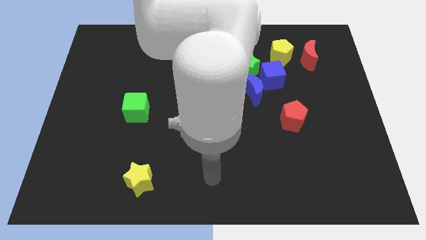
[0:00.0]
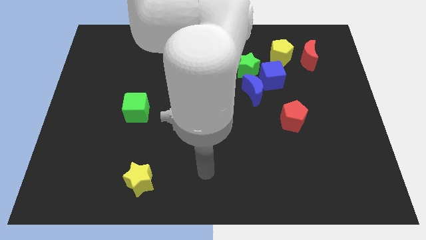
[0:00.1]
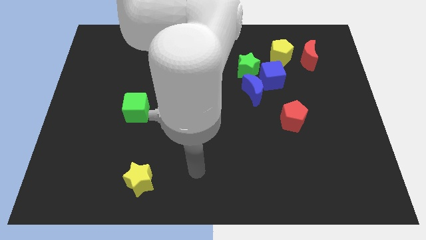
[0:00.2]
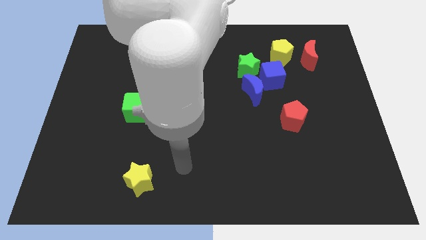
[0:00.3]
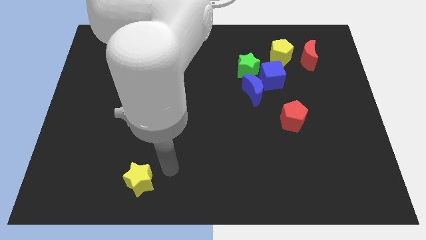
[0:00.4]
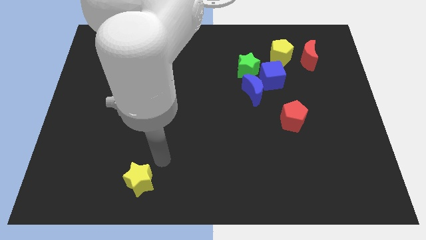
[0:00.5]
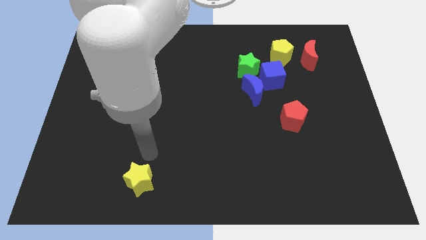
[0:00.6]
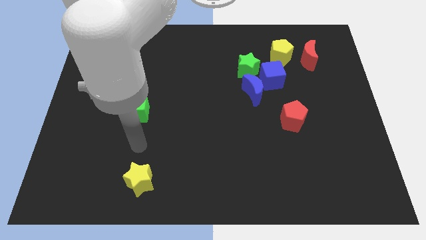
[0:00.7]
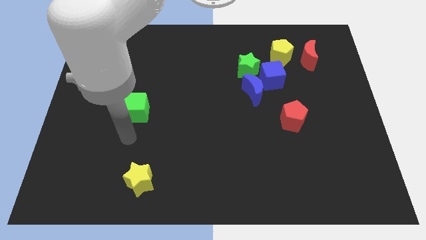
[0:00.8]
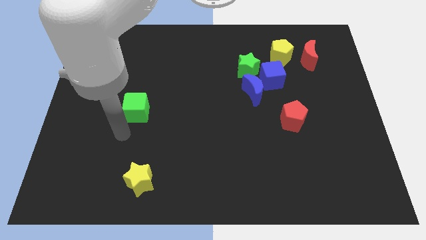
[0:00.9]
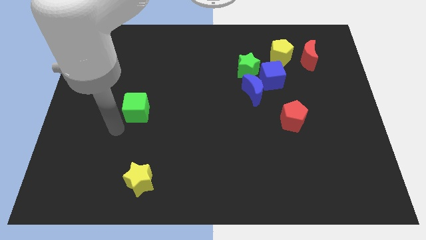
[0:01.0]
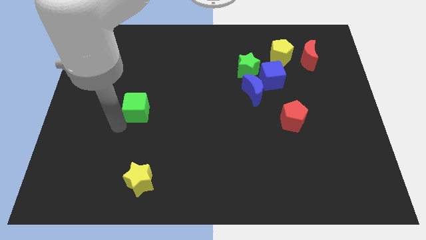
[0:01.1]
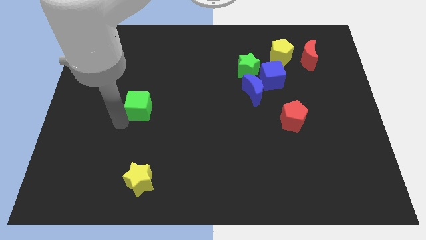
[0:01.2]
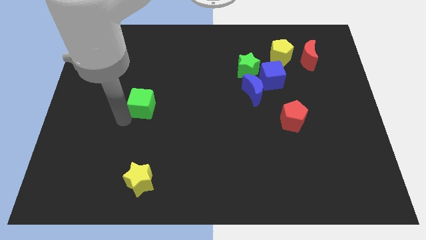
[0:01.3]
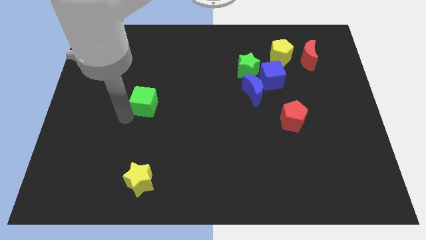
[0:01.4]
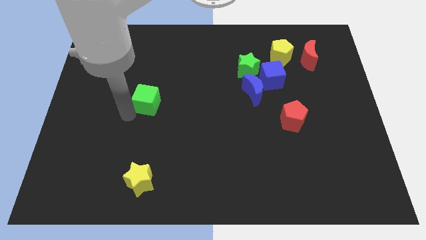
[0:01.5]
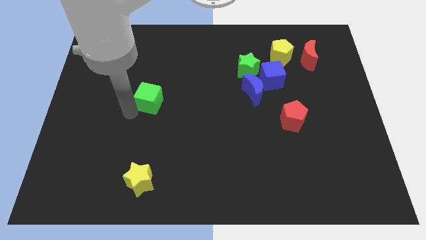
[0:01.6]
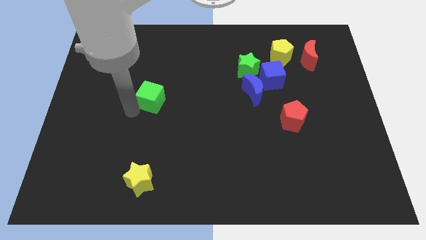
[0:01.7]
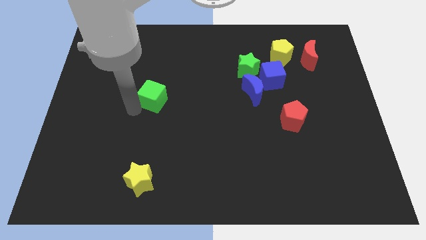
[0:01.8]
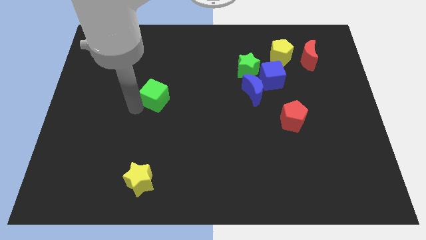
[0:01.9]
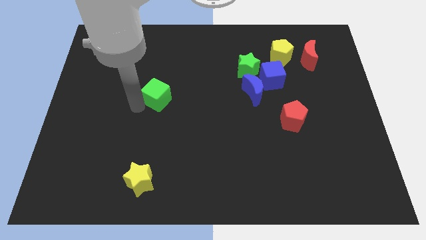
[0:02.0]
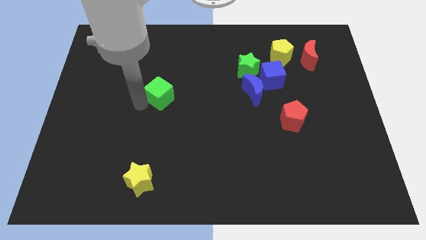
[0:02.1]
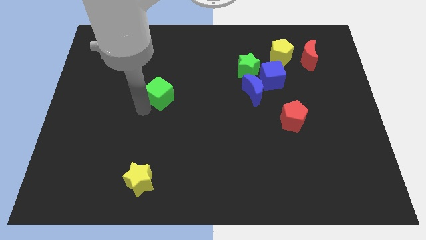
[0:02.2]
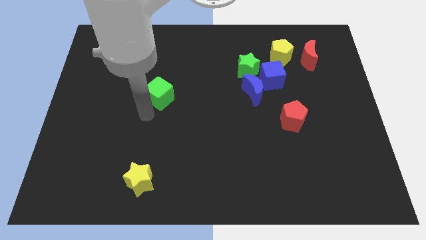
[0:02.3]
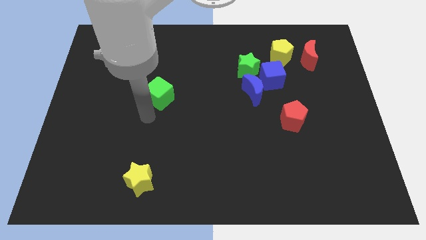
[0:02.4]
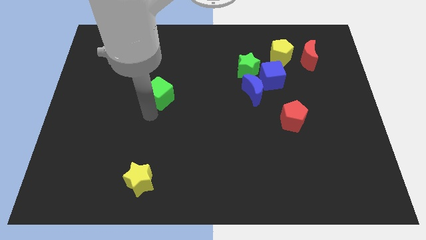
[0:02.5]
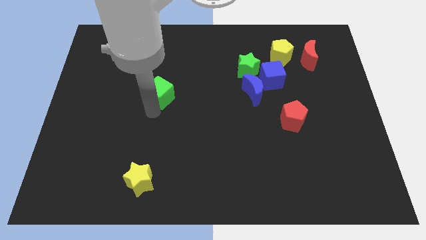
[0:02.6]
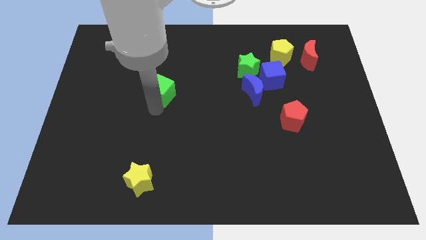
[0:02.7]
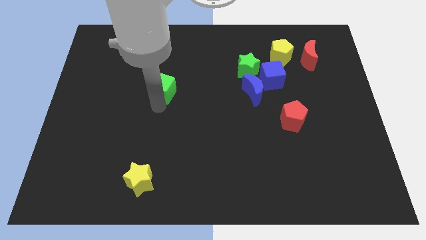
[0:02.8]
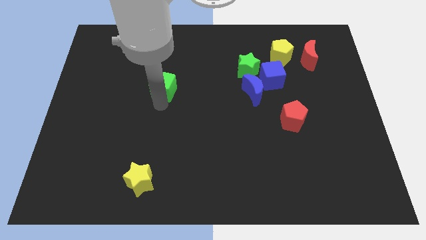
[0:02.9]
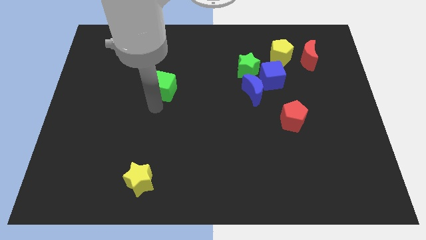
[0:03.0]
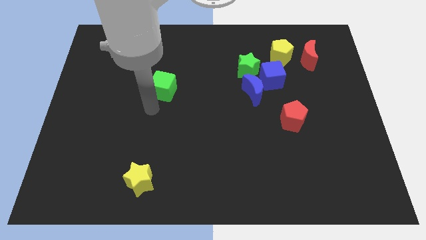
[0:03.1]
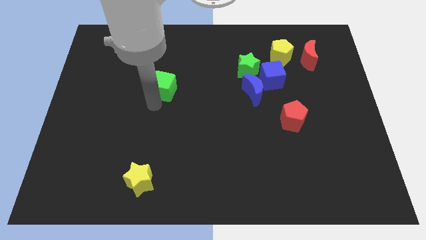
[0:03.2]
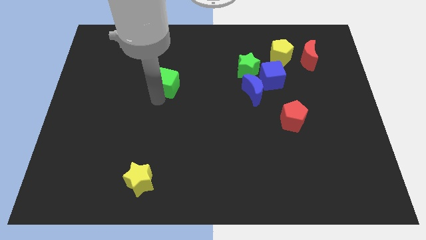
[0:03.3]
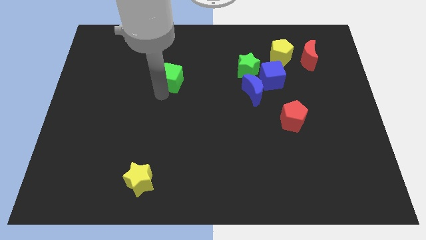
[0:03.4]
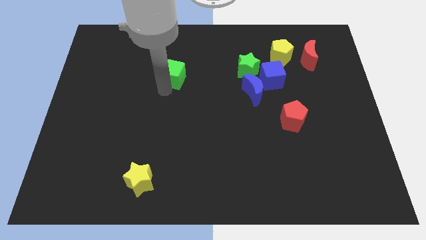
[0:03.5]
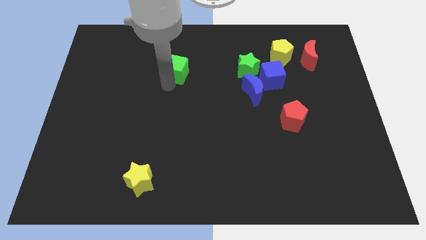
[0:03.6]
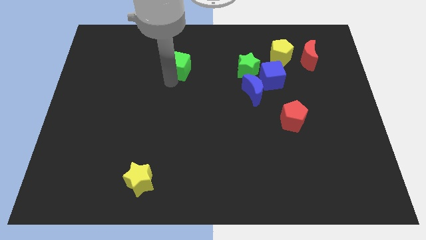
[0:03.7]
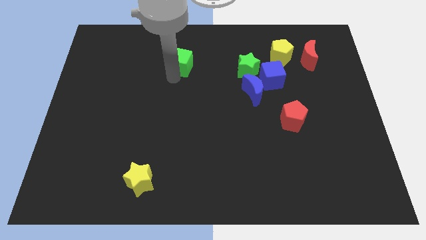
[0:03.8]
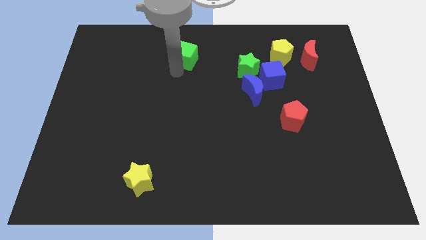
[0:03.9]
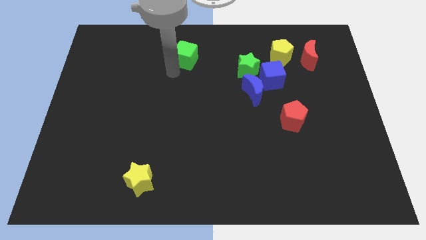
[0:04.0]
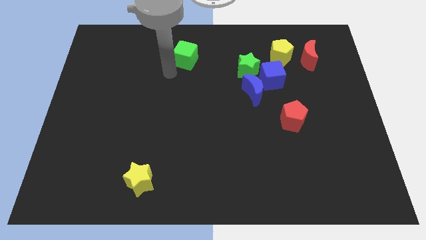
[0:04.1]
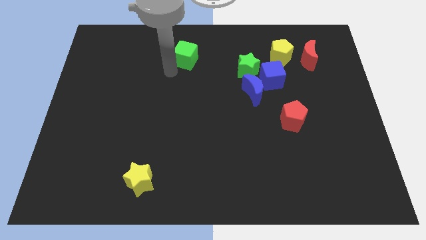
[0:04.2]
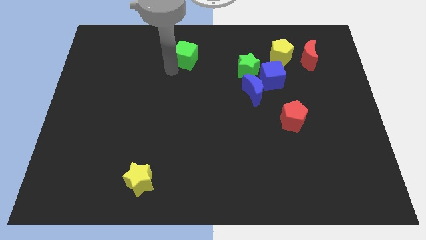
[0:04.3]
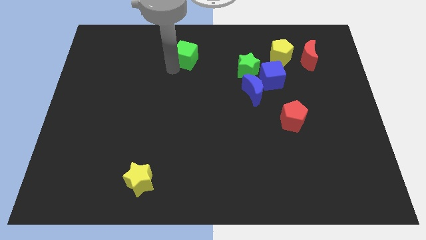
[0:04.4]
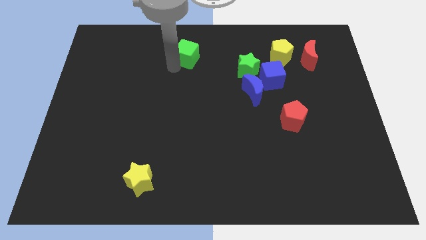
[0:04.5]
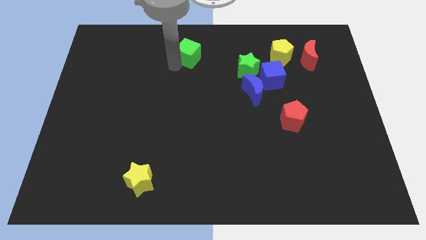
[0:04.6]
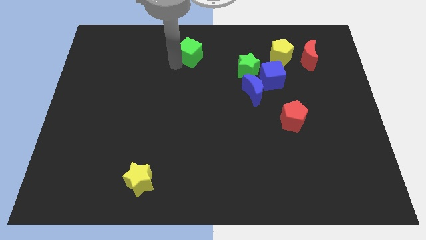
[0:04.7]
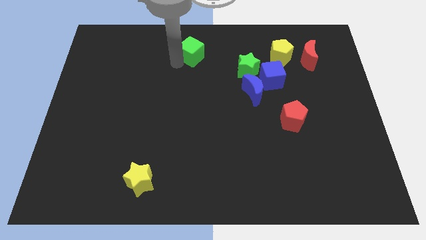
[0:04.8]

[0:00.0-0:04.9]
put the green cube to the top side

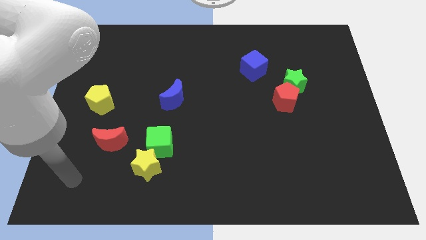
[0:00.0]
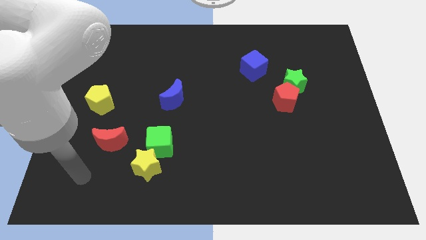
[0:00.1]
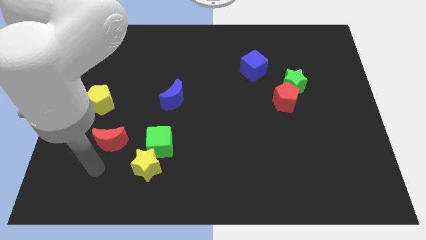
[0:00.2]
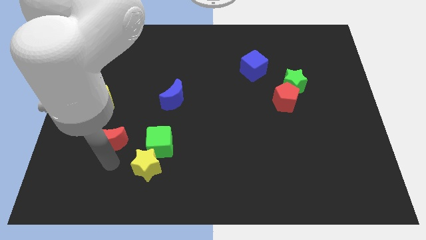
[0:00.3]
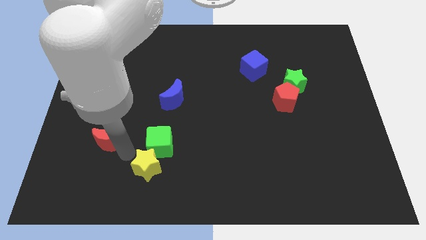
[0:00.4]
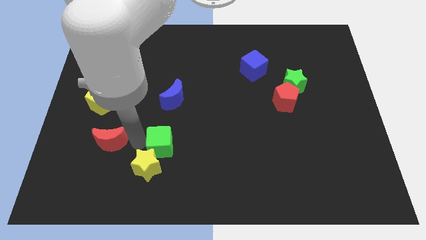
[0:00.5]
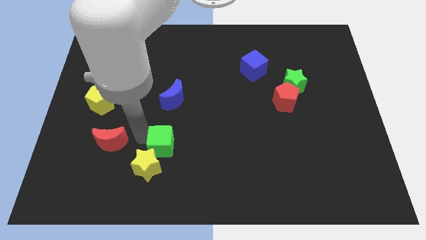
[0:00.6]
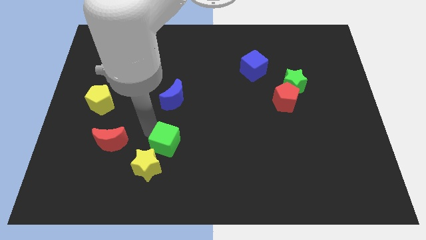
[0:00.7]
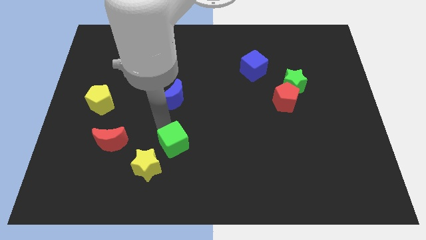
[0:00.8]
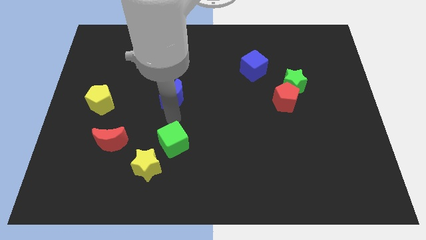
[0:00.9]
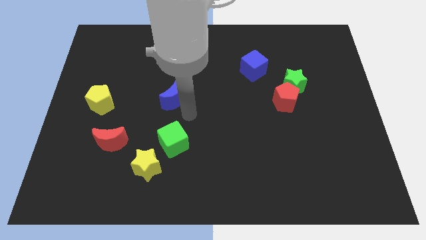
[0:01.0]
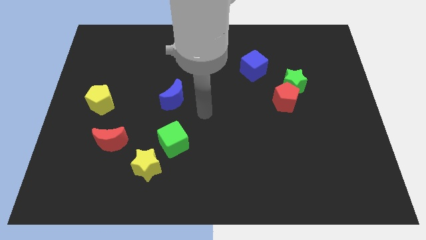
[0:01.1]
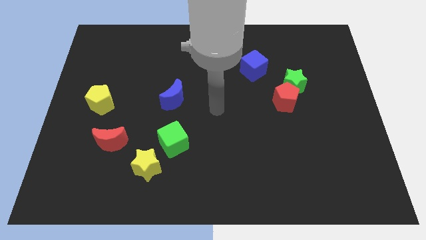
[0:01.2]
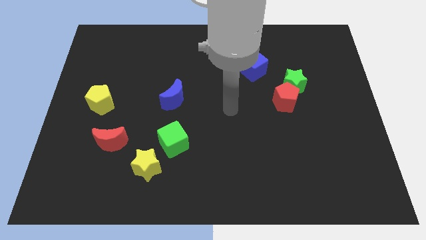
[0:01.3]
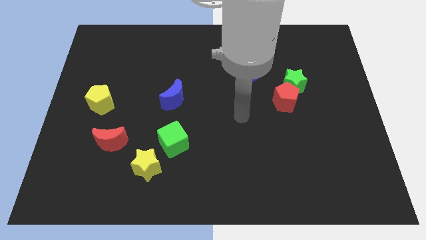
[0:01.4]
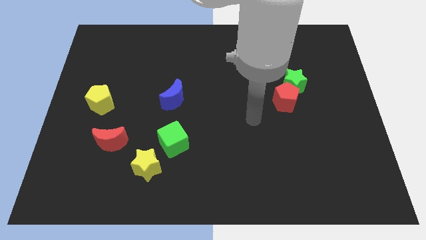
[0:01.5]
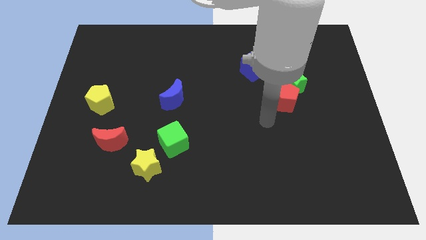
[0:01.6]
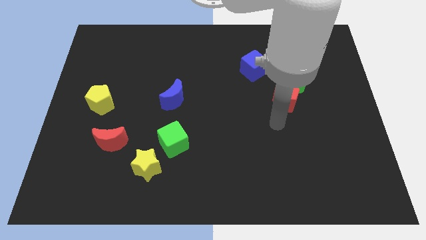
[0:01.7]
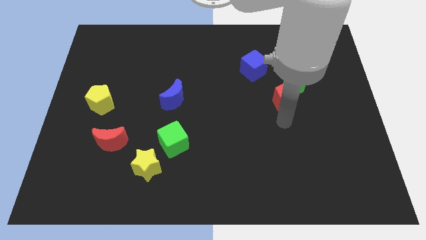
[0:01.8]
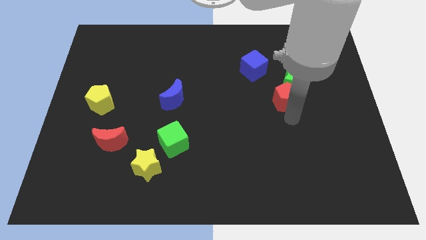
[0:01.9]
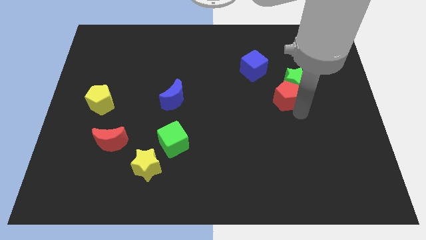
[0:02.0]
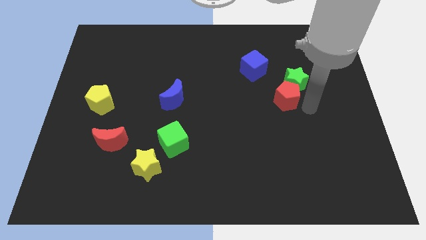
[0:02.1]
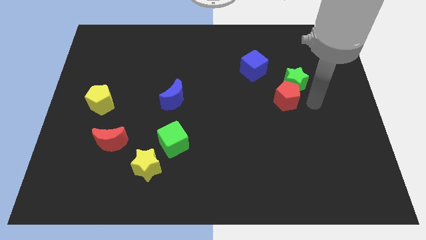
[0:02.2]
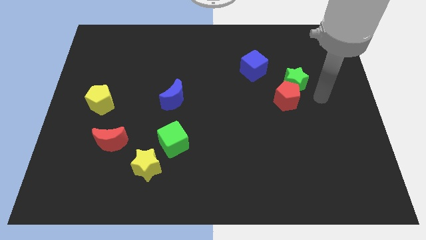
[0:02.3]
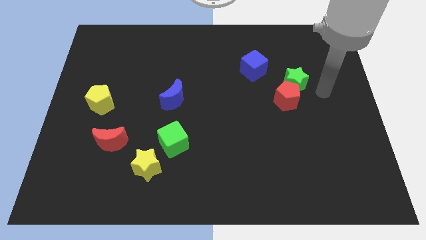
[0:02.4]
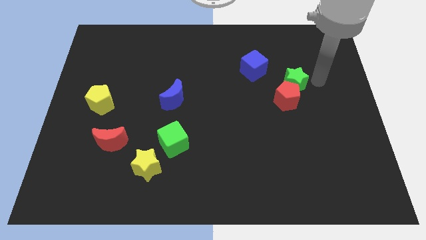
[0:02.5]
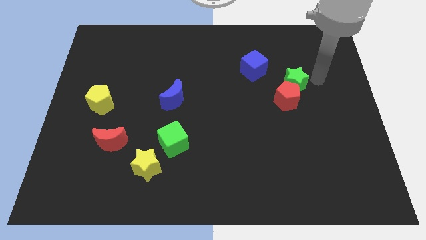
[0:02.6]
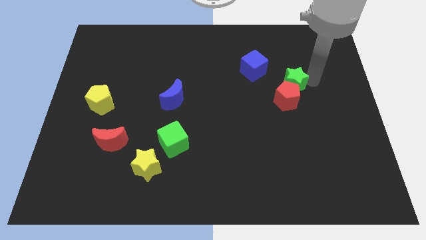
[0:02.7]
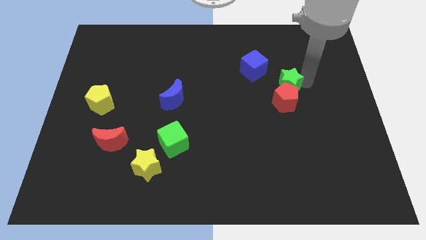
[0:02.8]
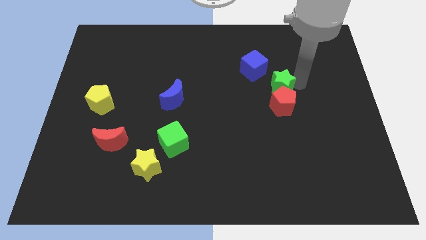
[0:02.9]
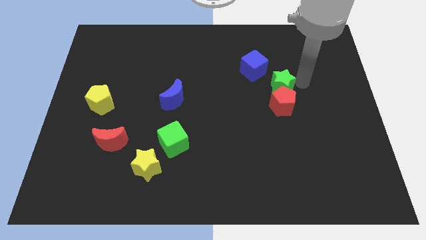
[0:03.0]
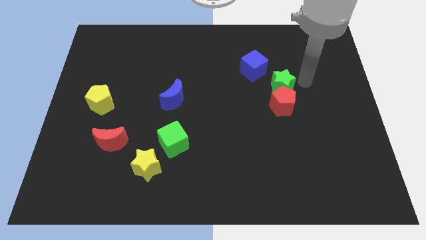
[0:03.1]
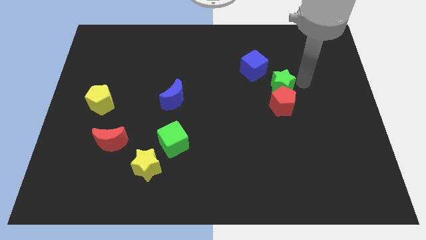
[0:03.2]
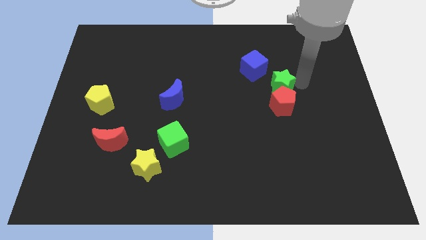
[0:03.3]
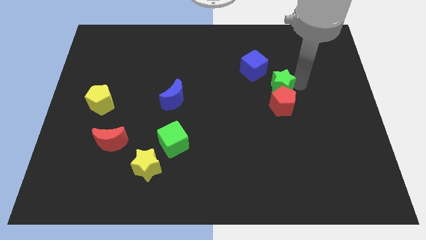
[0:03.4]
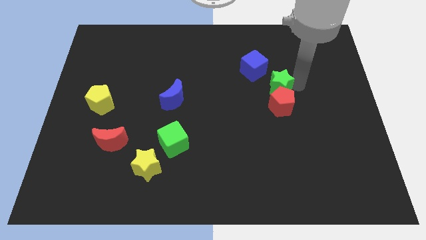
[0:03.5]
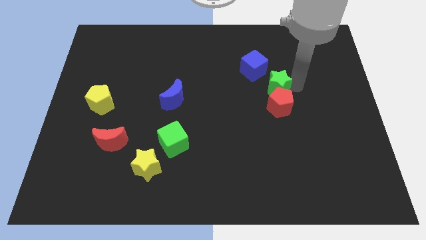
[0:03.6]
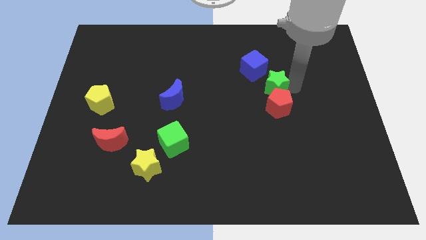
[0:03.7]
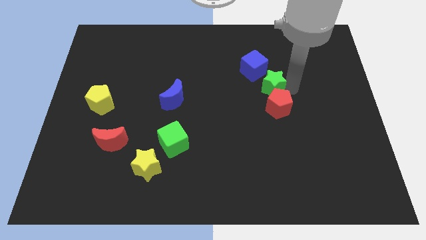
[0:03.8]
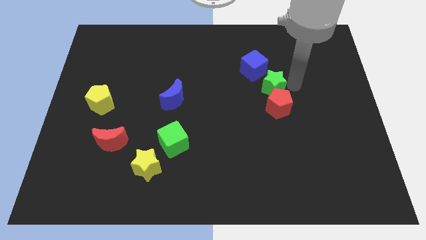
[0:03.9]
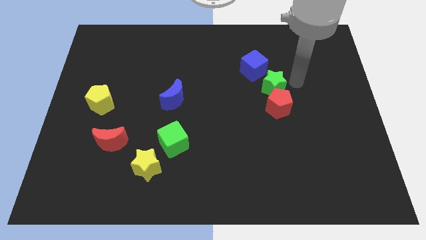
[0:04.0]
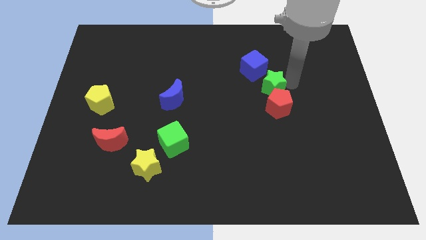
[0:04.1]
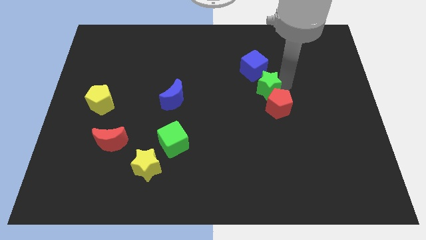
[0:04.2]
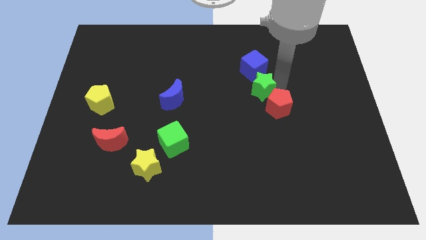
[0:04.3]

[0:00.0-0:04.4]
move the green star to the middle
